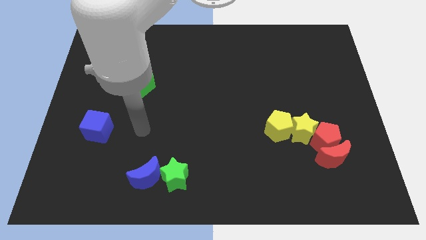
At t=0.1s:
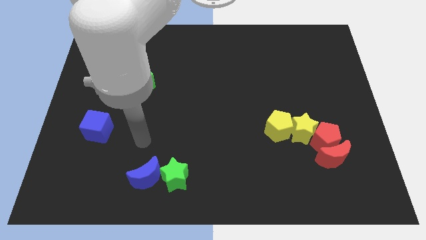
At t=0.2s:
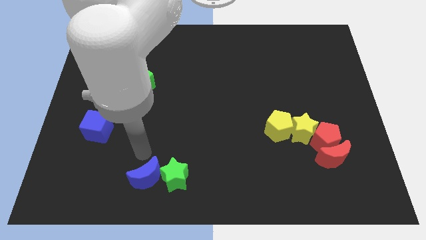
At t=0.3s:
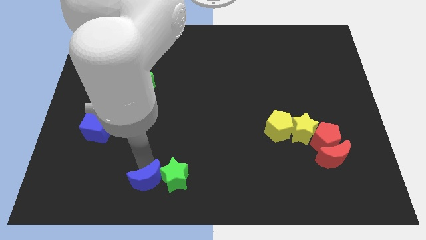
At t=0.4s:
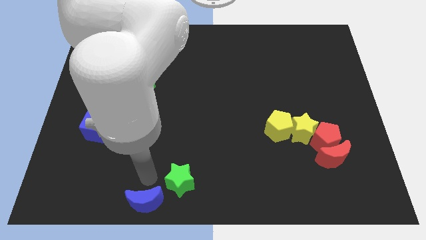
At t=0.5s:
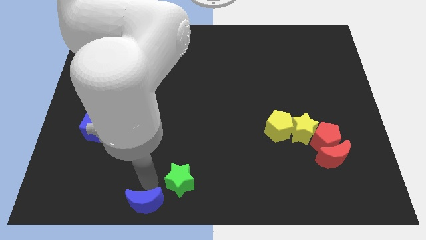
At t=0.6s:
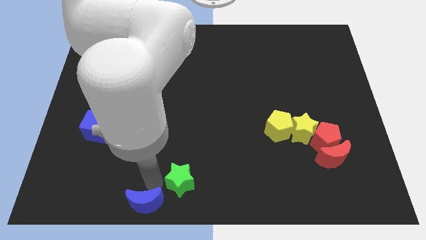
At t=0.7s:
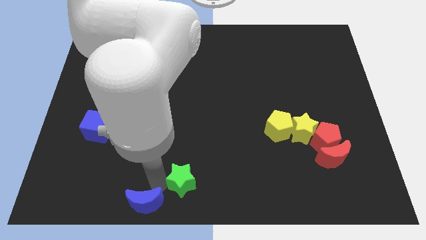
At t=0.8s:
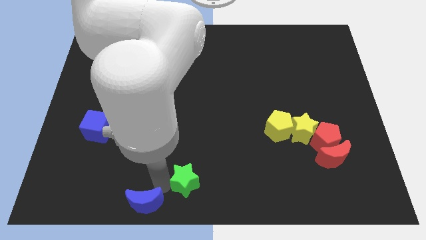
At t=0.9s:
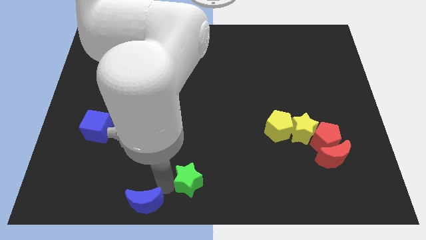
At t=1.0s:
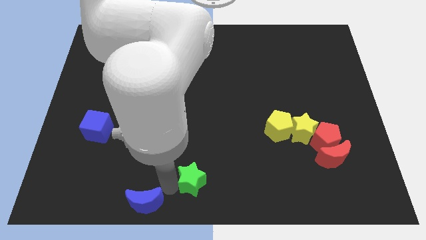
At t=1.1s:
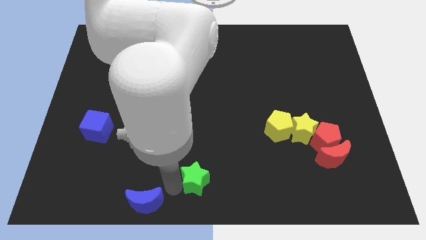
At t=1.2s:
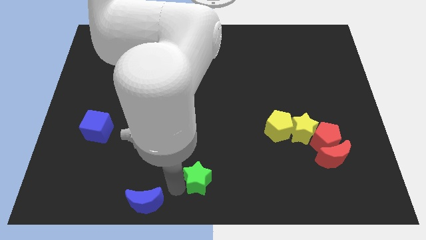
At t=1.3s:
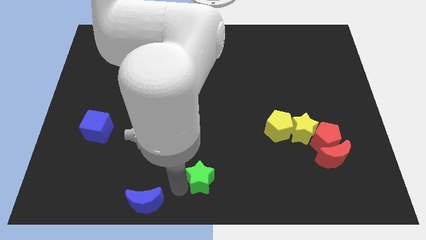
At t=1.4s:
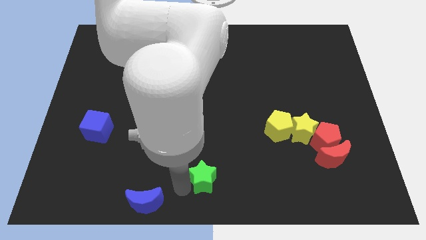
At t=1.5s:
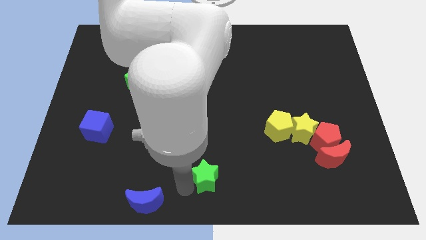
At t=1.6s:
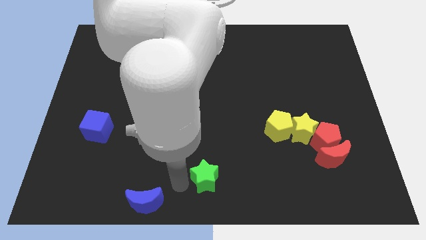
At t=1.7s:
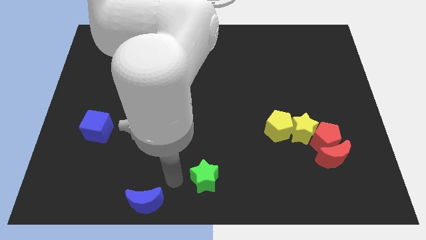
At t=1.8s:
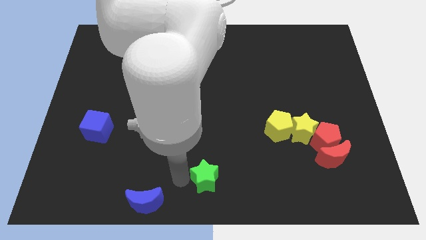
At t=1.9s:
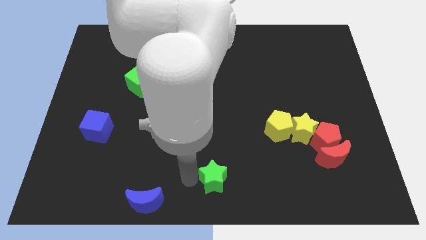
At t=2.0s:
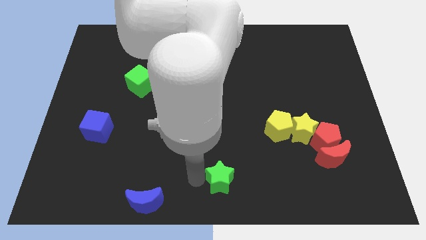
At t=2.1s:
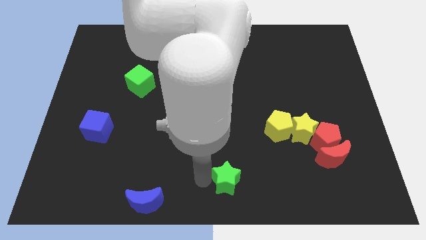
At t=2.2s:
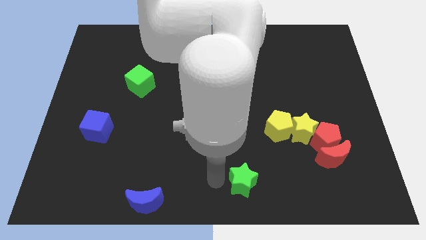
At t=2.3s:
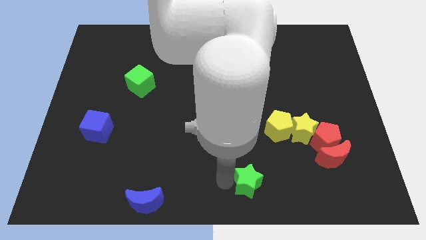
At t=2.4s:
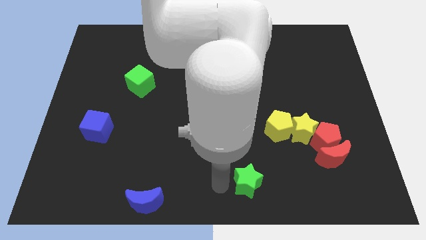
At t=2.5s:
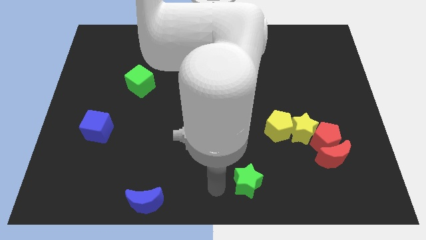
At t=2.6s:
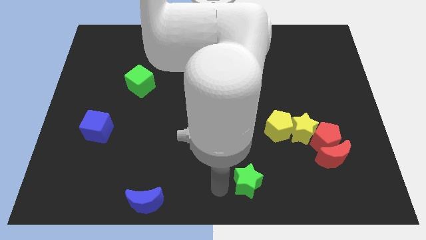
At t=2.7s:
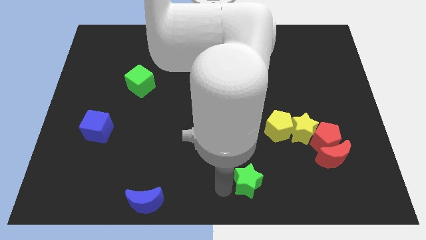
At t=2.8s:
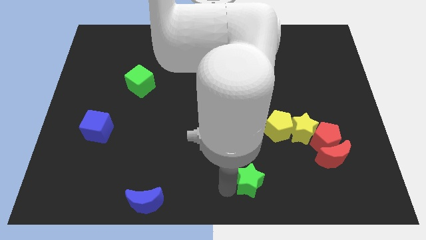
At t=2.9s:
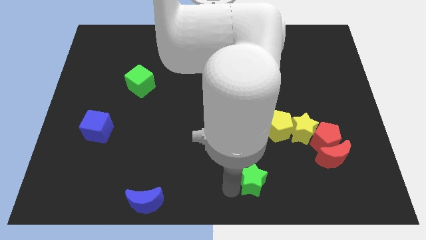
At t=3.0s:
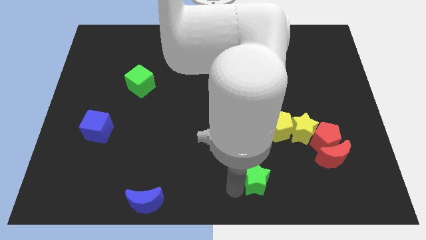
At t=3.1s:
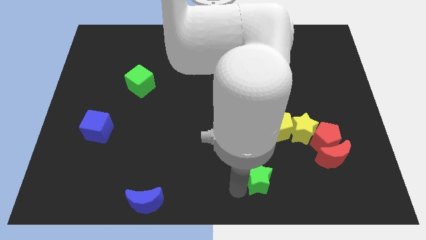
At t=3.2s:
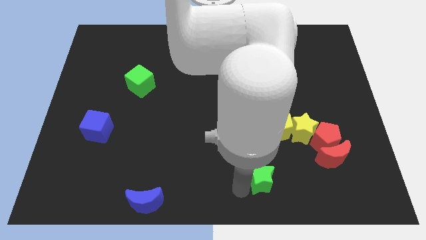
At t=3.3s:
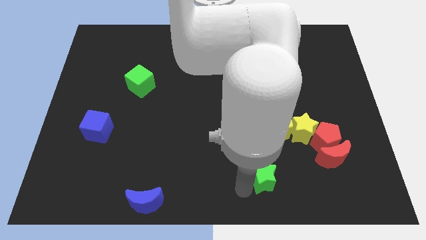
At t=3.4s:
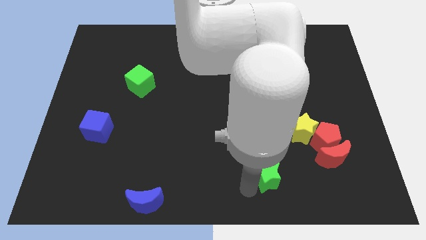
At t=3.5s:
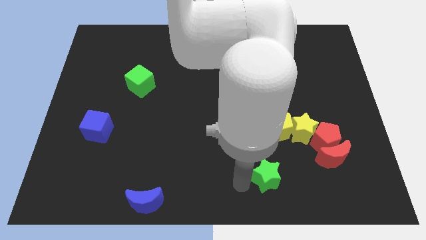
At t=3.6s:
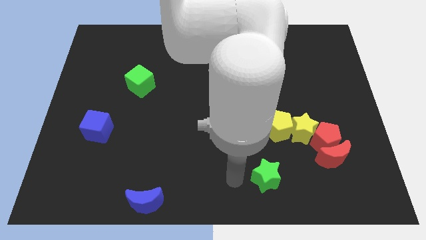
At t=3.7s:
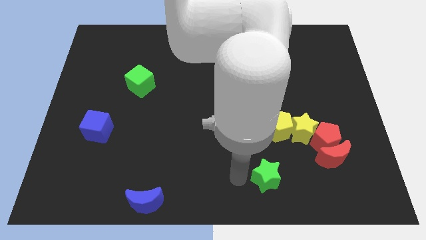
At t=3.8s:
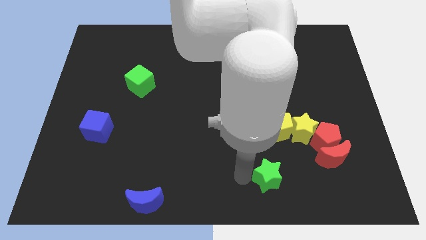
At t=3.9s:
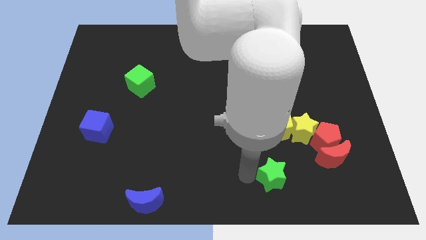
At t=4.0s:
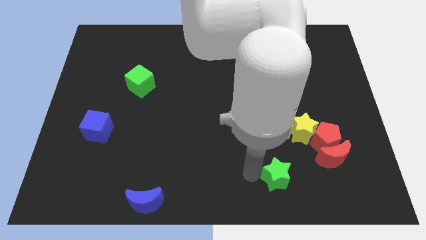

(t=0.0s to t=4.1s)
move the green star to the right

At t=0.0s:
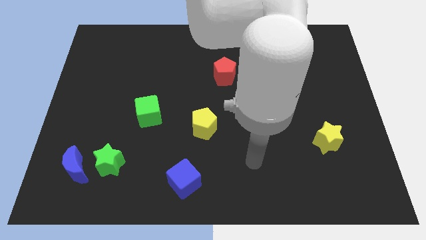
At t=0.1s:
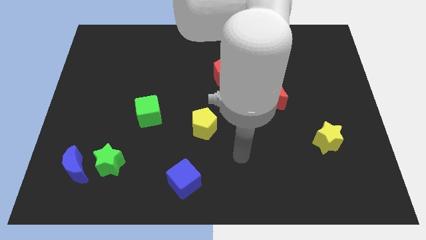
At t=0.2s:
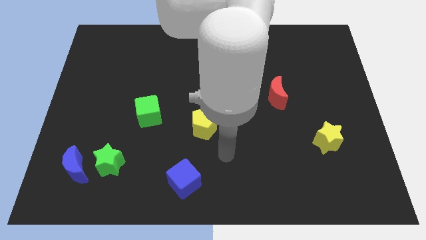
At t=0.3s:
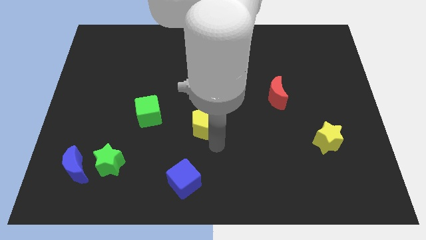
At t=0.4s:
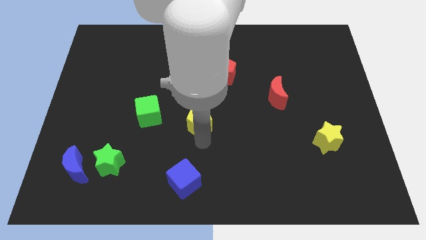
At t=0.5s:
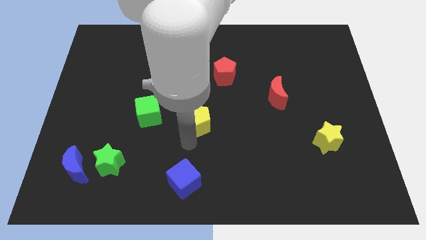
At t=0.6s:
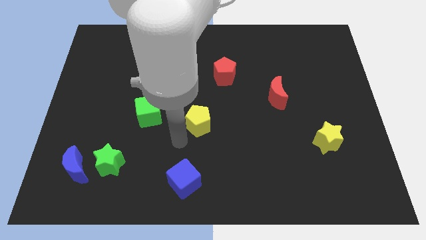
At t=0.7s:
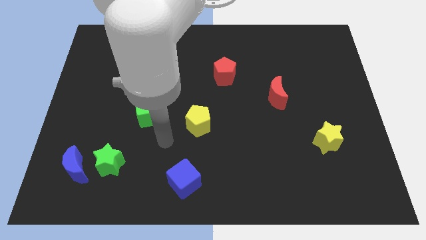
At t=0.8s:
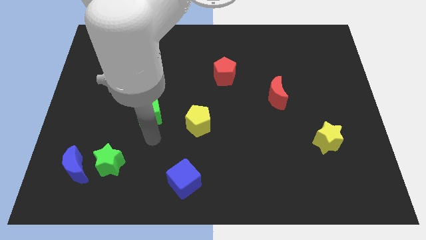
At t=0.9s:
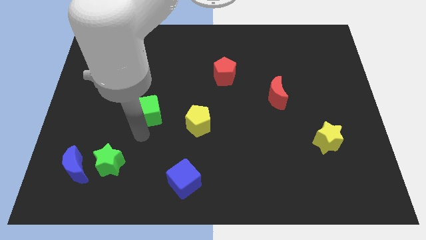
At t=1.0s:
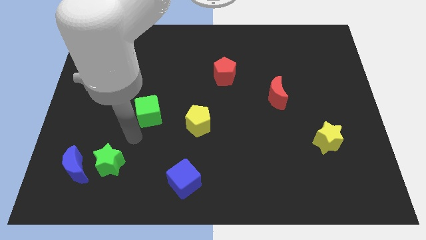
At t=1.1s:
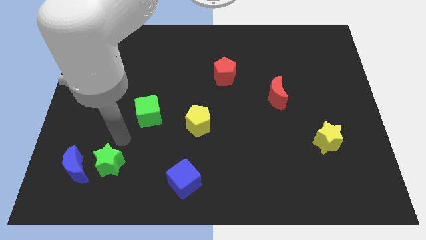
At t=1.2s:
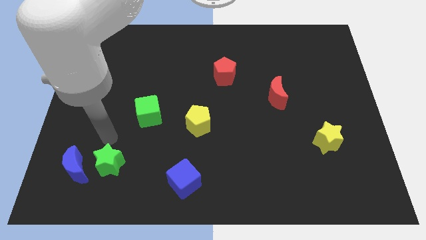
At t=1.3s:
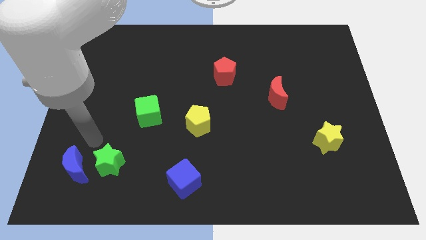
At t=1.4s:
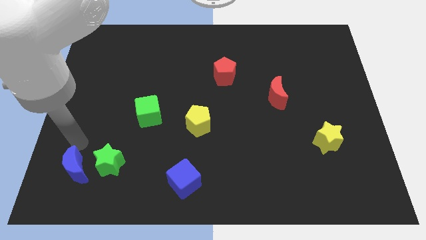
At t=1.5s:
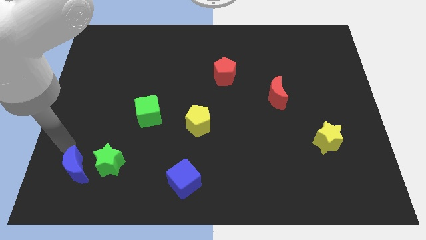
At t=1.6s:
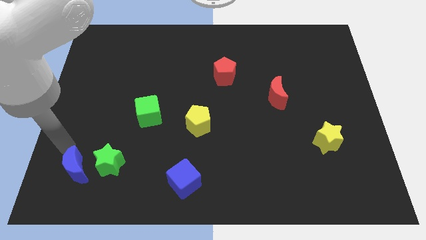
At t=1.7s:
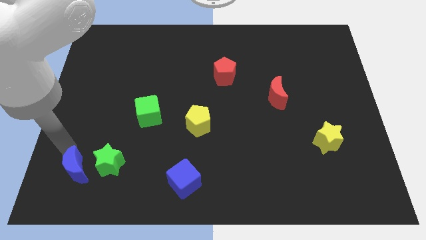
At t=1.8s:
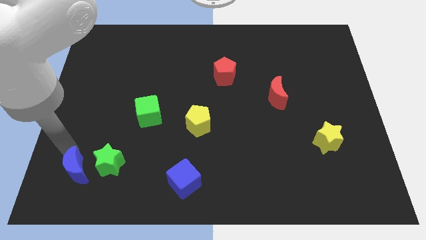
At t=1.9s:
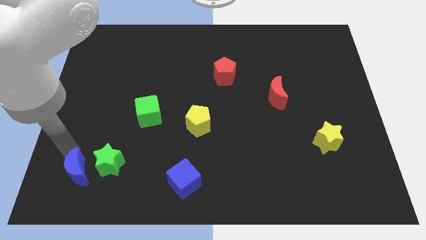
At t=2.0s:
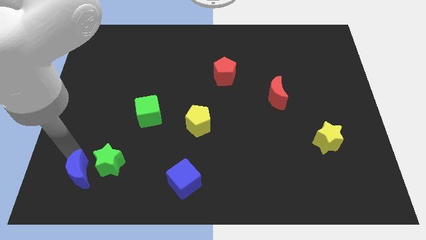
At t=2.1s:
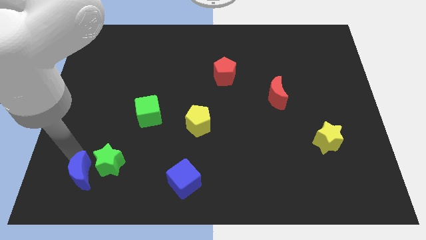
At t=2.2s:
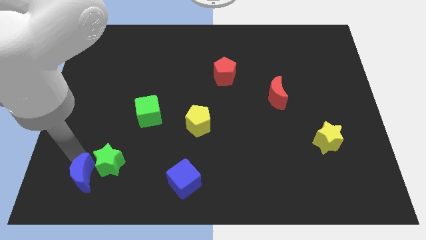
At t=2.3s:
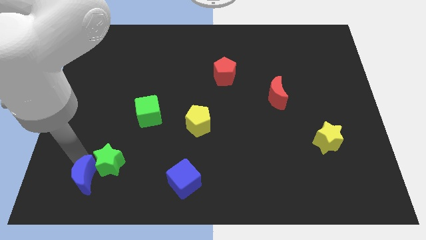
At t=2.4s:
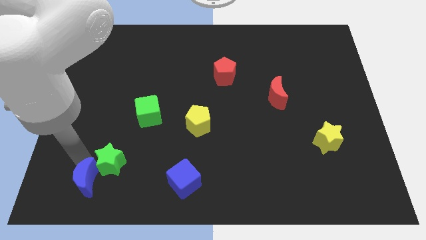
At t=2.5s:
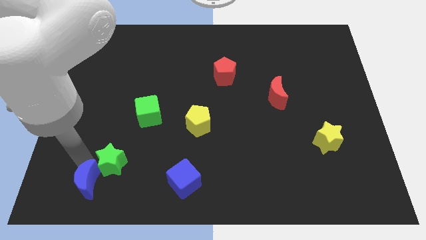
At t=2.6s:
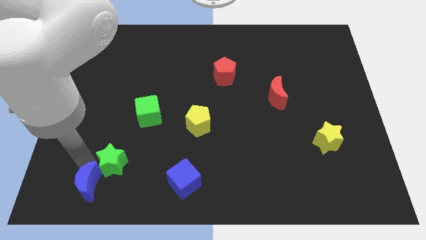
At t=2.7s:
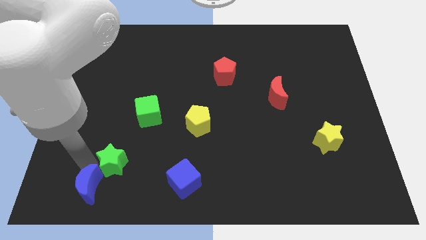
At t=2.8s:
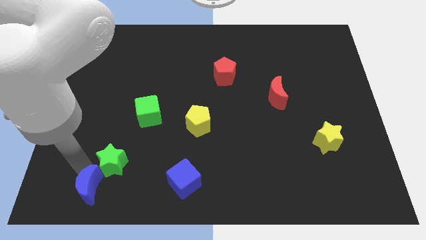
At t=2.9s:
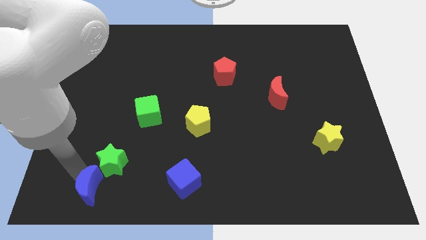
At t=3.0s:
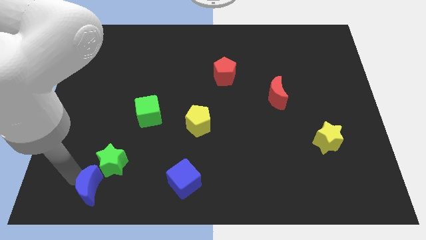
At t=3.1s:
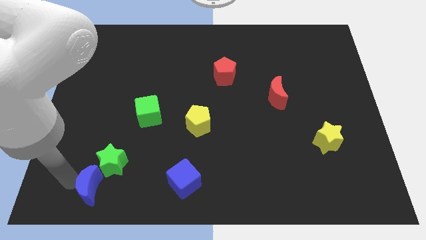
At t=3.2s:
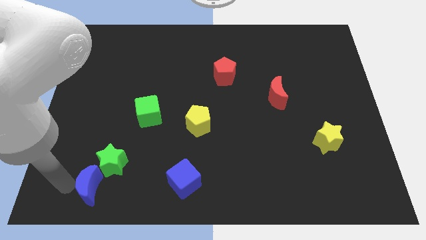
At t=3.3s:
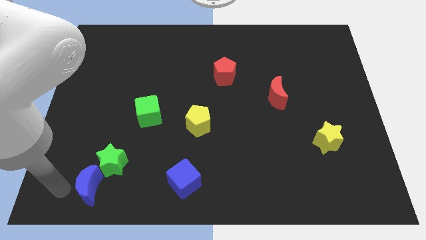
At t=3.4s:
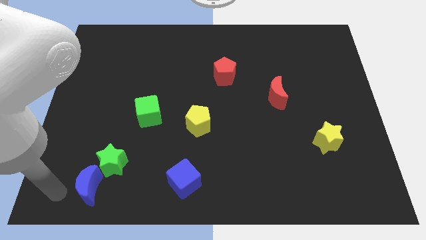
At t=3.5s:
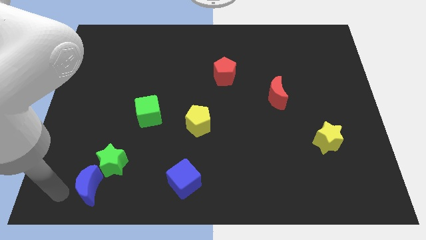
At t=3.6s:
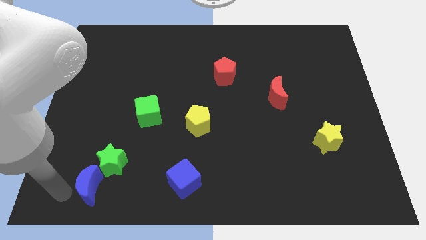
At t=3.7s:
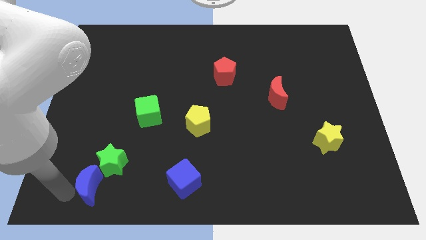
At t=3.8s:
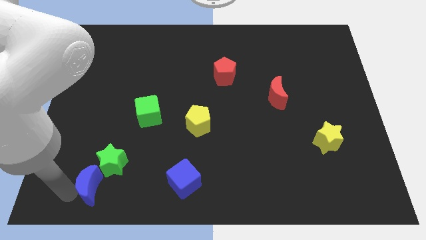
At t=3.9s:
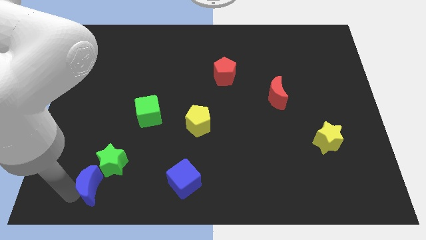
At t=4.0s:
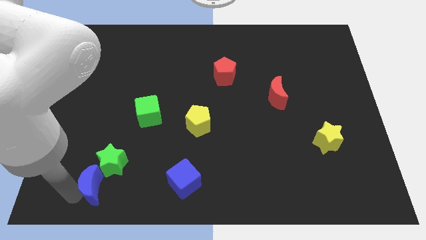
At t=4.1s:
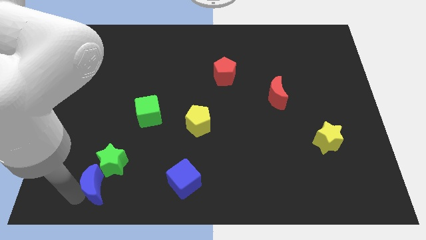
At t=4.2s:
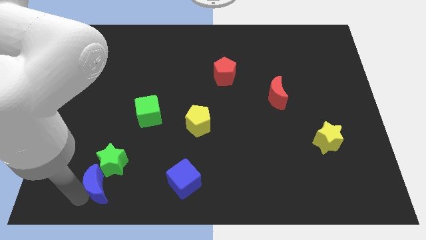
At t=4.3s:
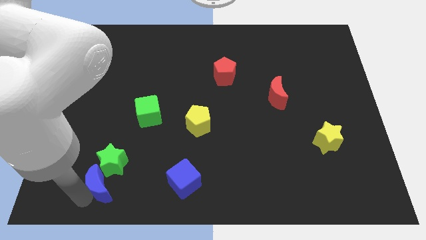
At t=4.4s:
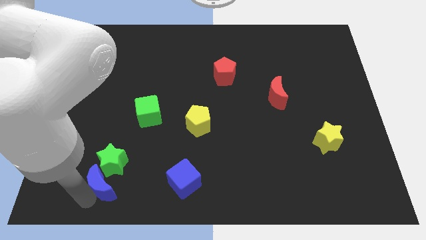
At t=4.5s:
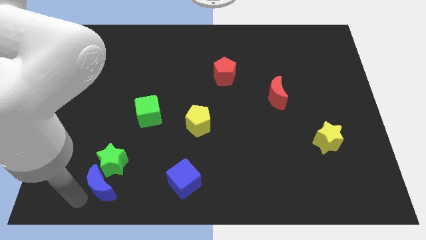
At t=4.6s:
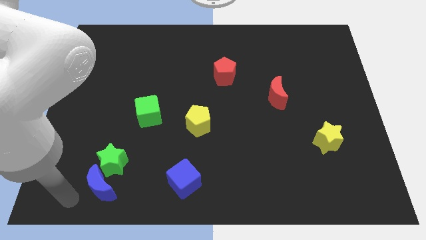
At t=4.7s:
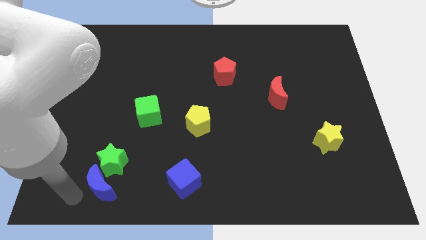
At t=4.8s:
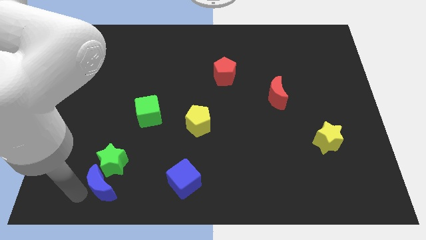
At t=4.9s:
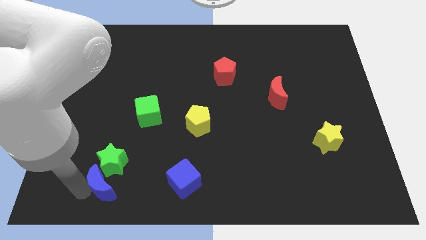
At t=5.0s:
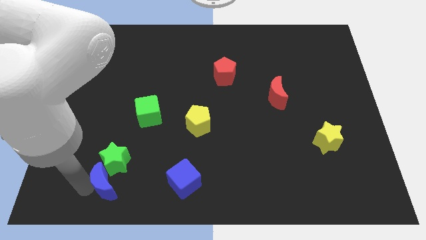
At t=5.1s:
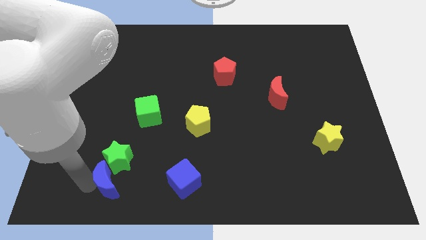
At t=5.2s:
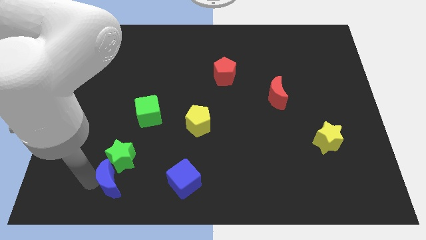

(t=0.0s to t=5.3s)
push the blue moon right a bit
